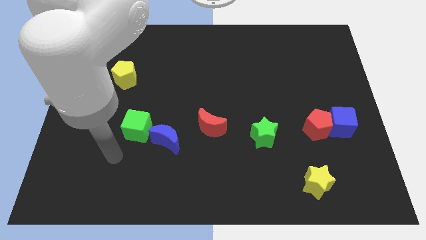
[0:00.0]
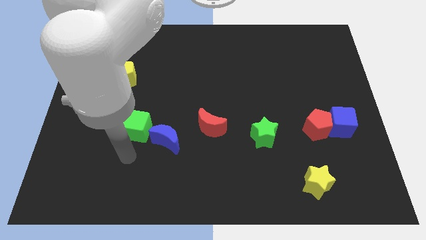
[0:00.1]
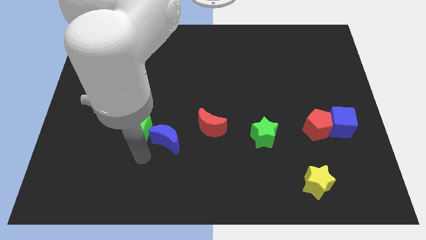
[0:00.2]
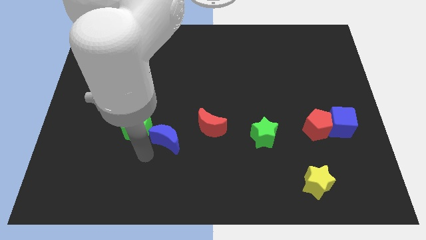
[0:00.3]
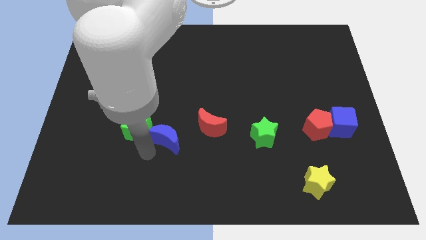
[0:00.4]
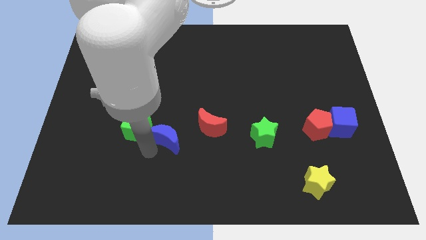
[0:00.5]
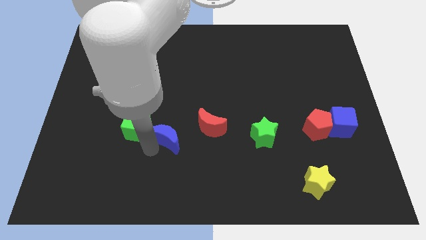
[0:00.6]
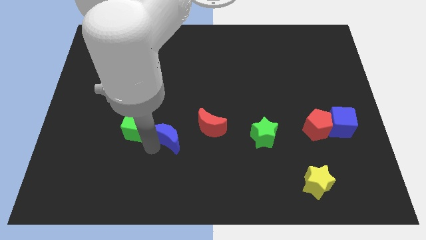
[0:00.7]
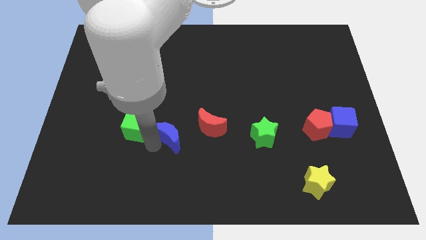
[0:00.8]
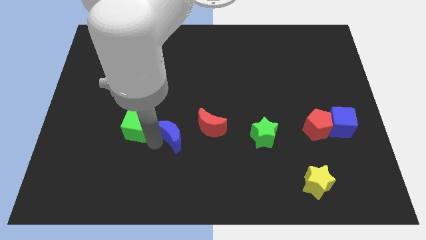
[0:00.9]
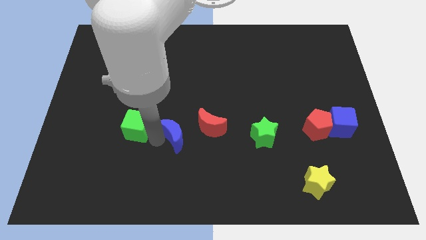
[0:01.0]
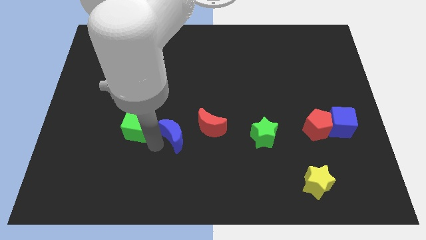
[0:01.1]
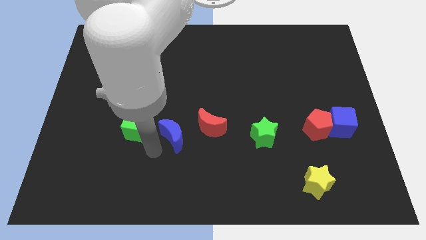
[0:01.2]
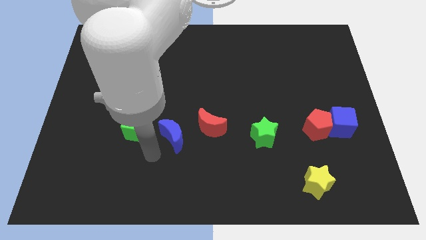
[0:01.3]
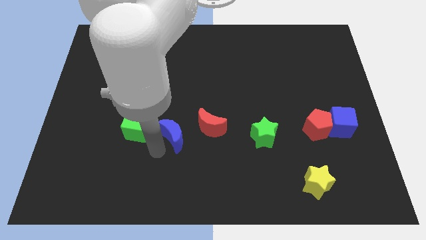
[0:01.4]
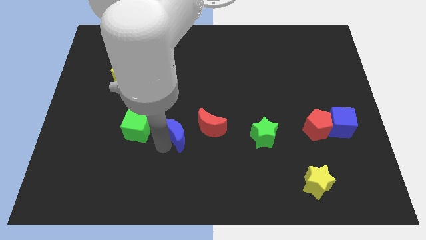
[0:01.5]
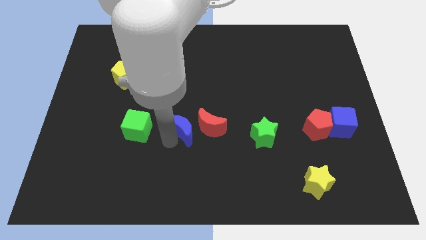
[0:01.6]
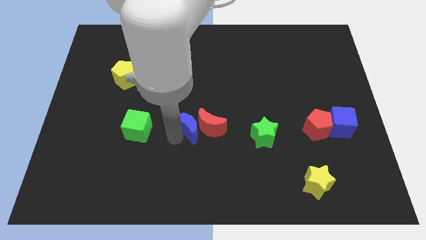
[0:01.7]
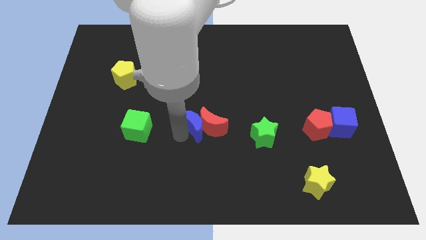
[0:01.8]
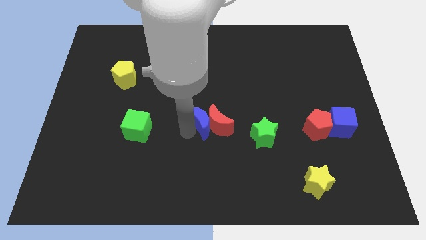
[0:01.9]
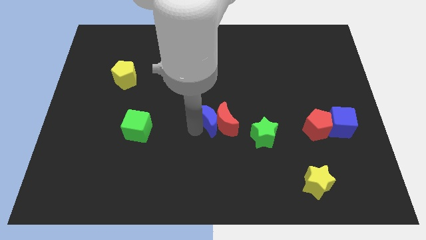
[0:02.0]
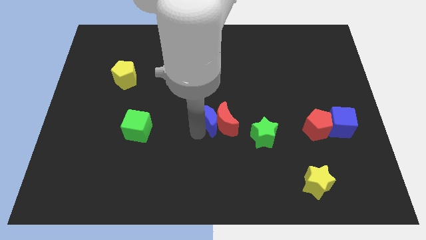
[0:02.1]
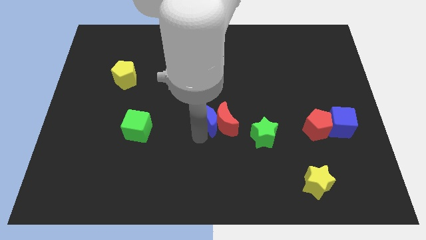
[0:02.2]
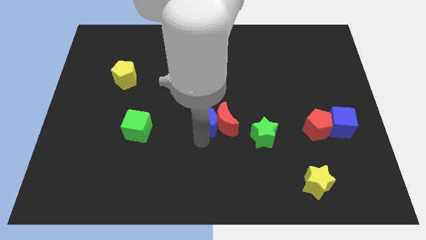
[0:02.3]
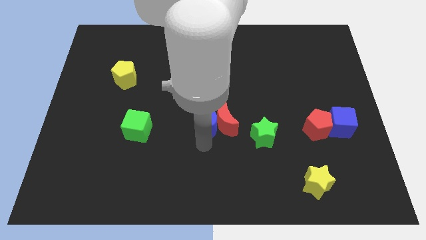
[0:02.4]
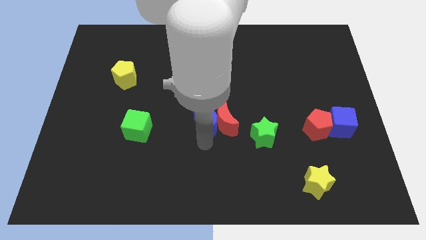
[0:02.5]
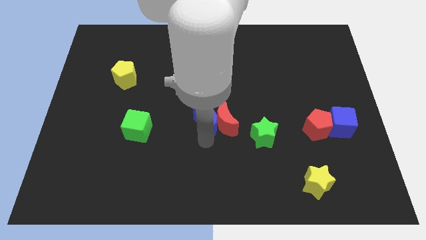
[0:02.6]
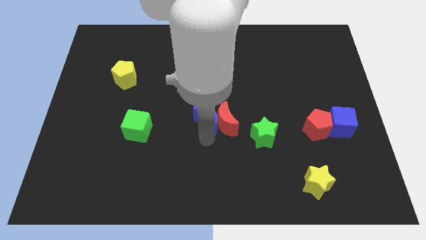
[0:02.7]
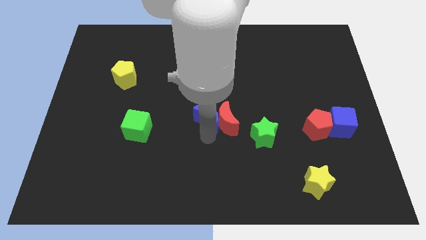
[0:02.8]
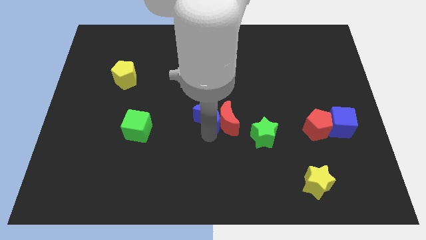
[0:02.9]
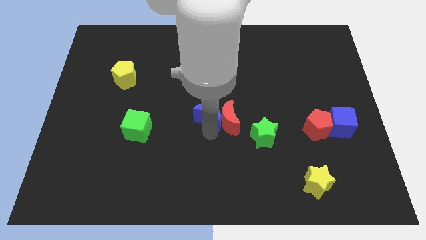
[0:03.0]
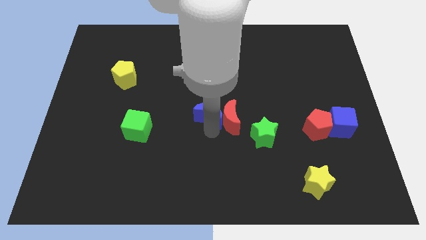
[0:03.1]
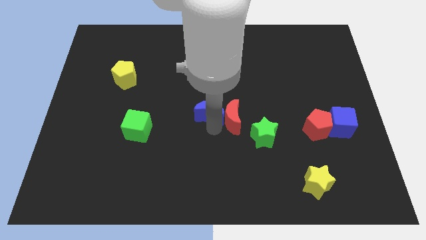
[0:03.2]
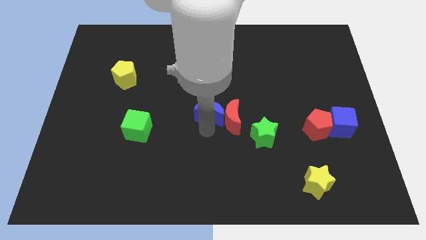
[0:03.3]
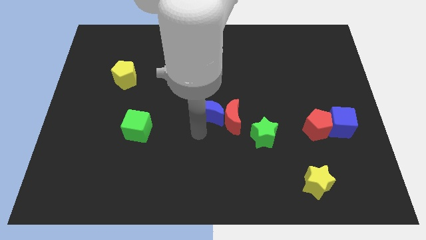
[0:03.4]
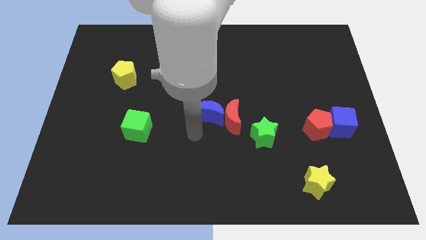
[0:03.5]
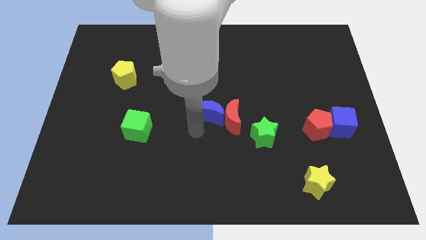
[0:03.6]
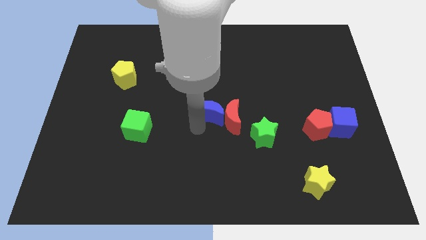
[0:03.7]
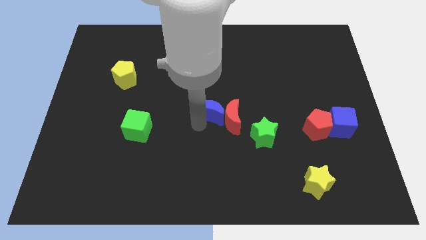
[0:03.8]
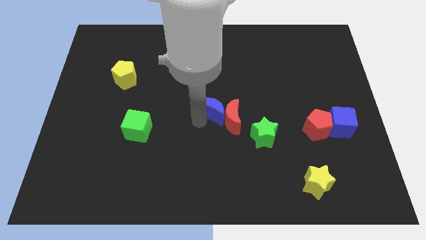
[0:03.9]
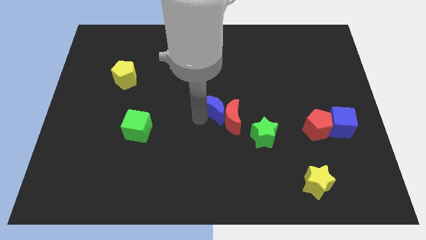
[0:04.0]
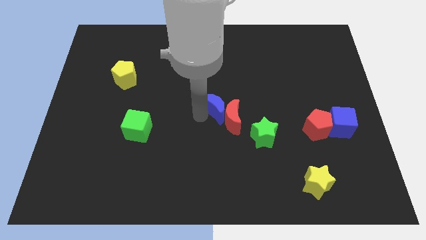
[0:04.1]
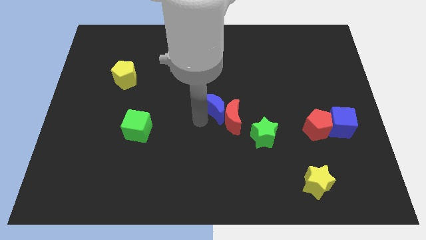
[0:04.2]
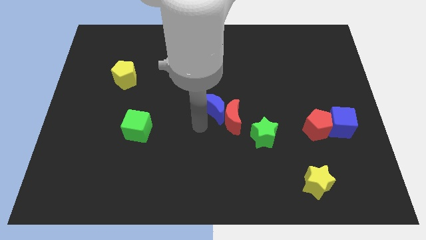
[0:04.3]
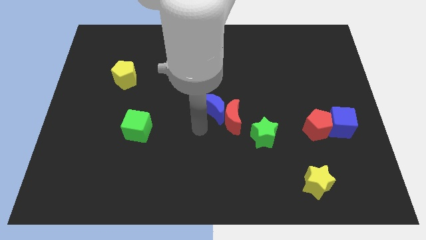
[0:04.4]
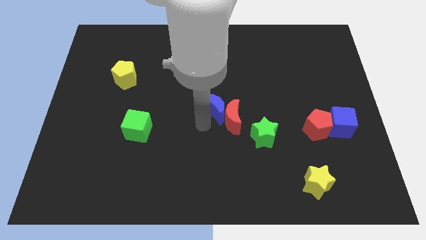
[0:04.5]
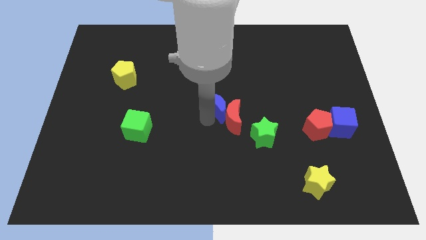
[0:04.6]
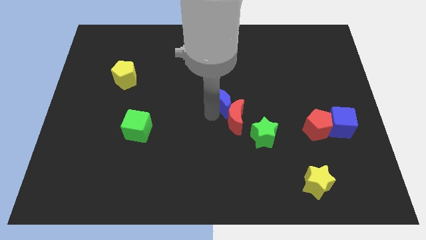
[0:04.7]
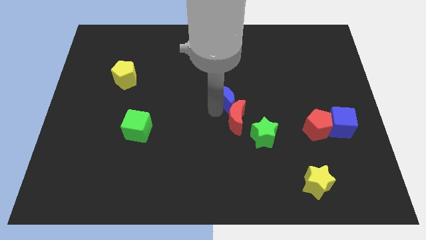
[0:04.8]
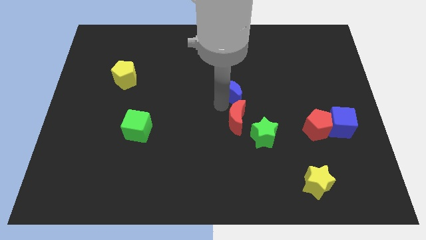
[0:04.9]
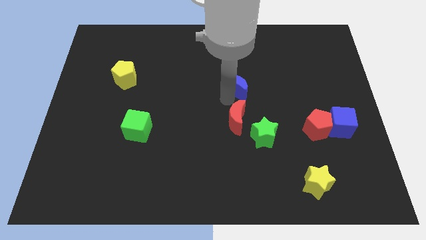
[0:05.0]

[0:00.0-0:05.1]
slide the blue moon up and to the right diagonally

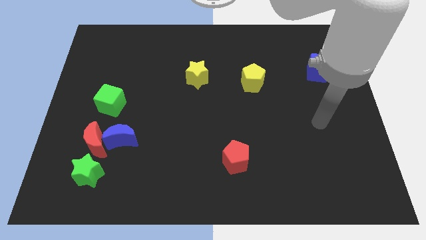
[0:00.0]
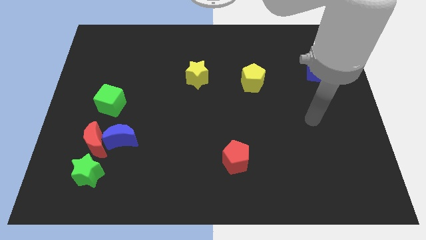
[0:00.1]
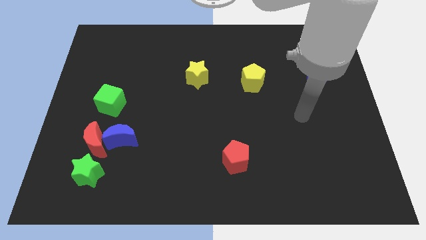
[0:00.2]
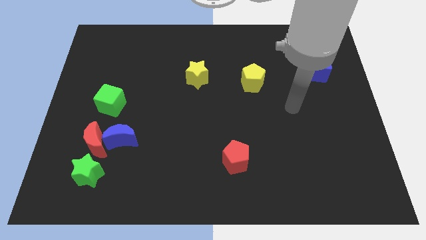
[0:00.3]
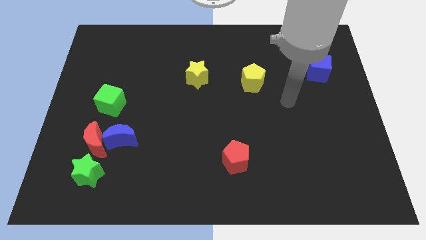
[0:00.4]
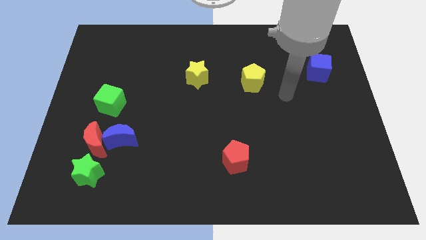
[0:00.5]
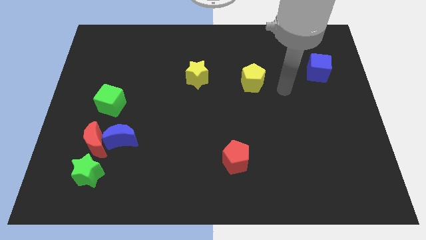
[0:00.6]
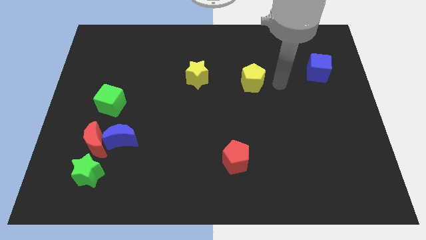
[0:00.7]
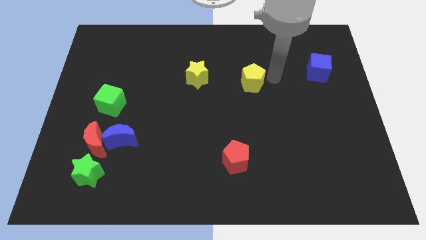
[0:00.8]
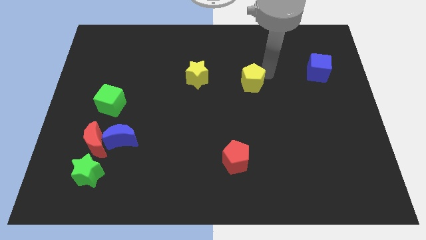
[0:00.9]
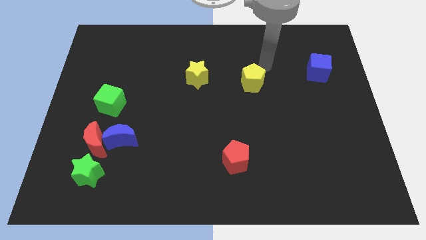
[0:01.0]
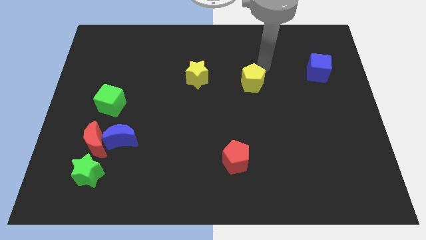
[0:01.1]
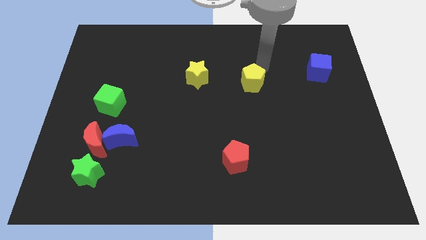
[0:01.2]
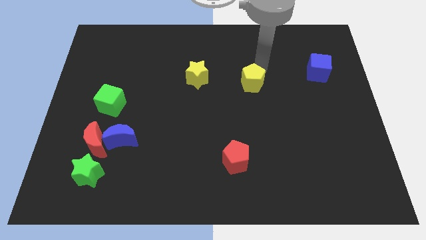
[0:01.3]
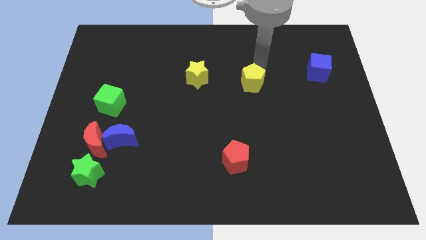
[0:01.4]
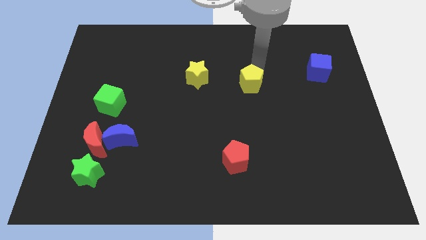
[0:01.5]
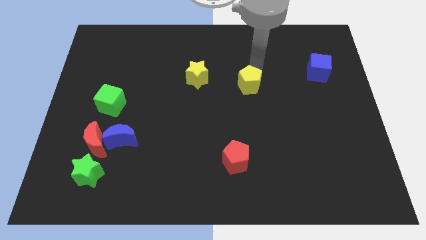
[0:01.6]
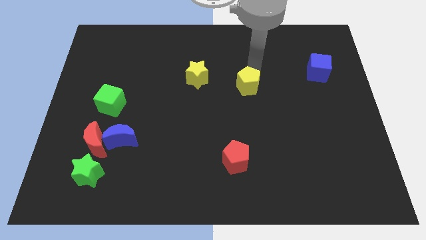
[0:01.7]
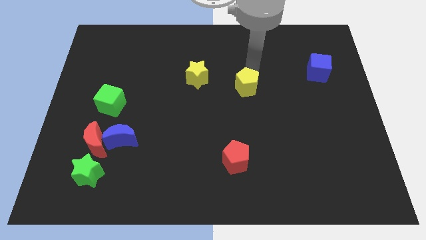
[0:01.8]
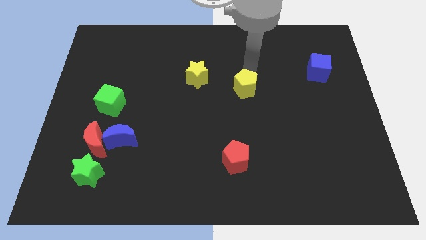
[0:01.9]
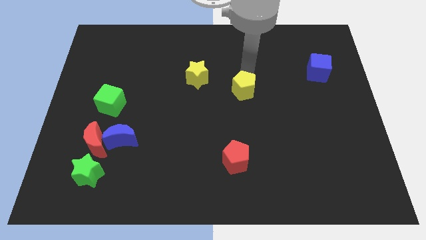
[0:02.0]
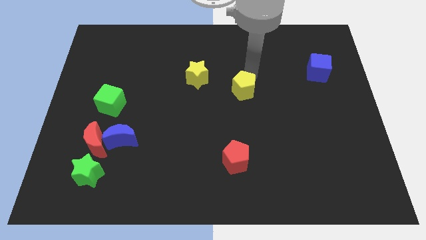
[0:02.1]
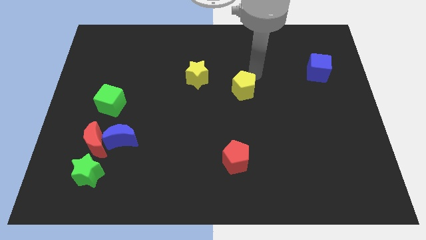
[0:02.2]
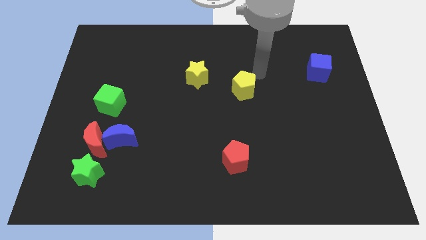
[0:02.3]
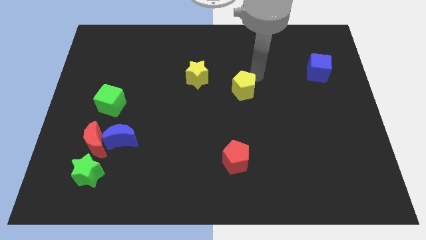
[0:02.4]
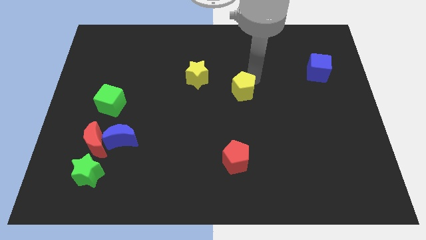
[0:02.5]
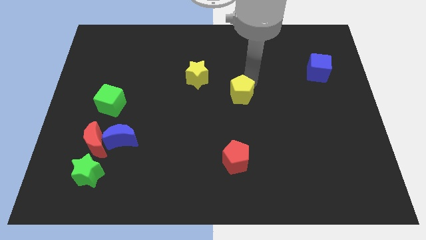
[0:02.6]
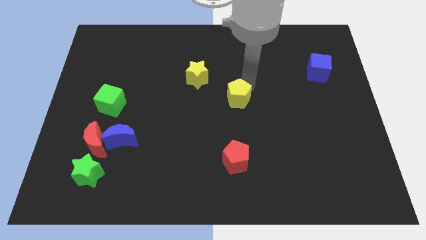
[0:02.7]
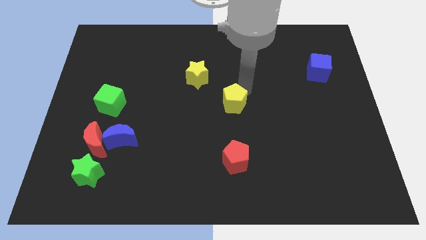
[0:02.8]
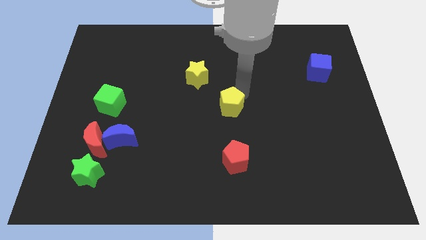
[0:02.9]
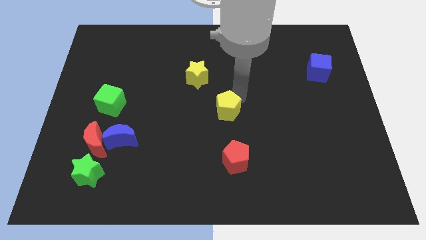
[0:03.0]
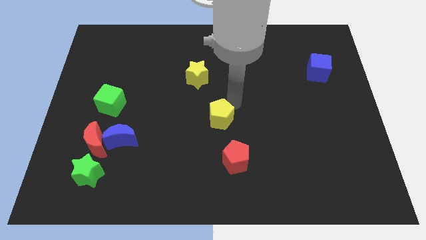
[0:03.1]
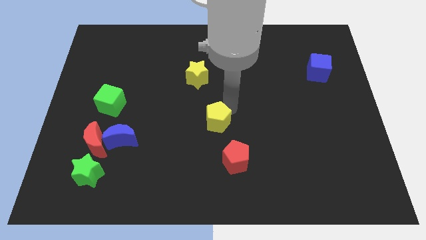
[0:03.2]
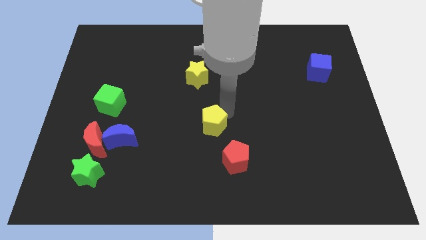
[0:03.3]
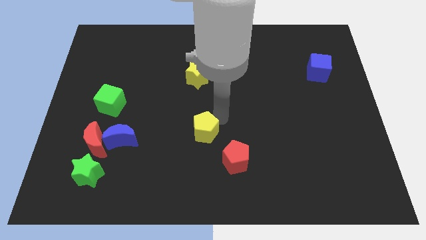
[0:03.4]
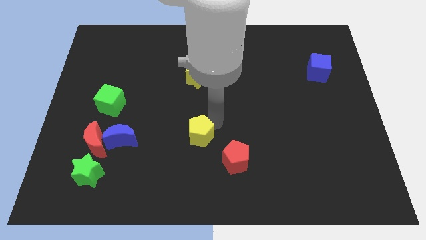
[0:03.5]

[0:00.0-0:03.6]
push the yellow pentagon diagonally downwards and left
